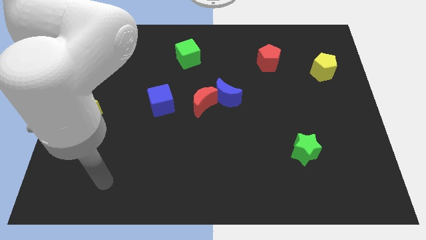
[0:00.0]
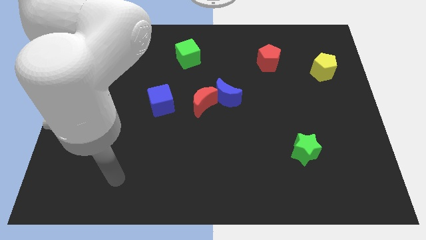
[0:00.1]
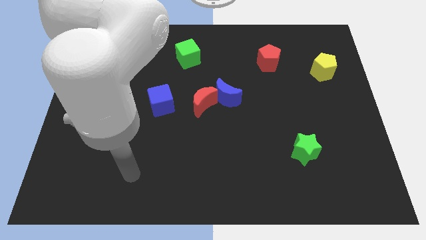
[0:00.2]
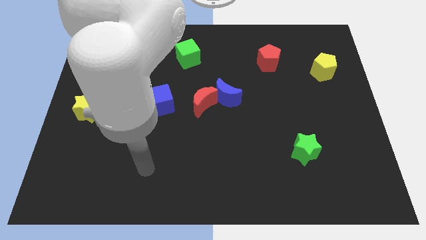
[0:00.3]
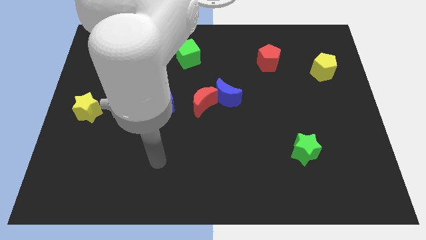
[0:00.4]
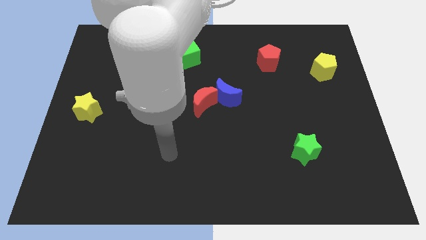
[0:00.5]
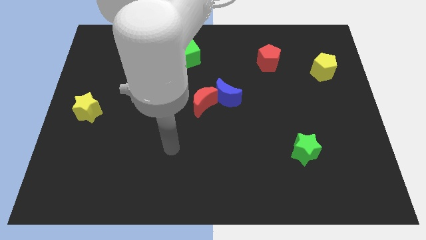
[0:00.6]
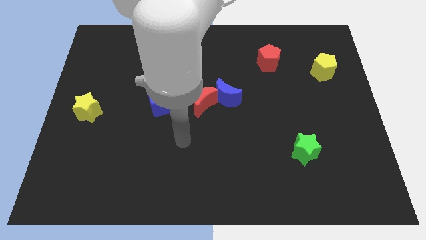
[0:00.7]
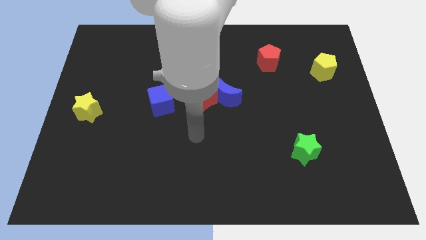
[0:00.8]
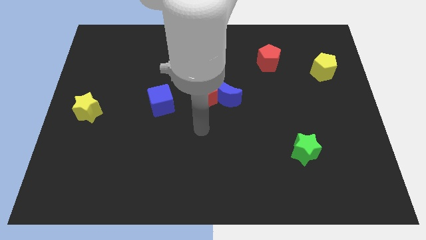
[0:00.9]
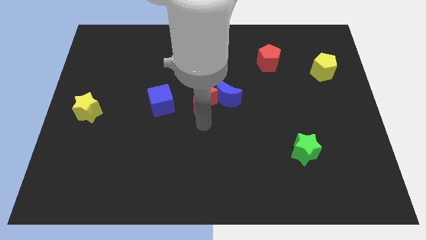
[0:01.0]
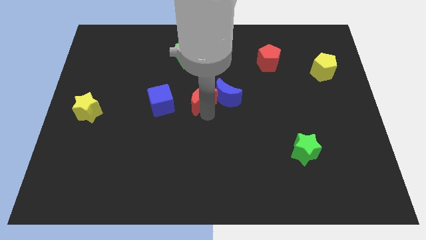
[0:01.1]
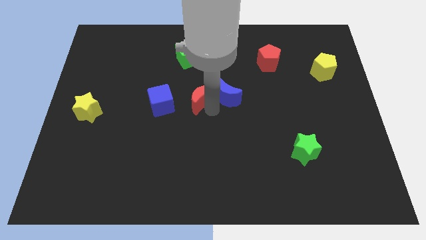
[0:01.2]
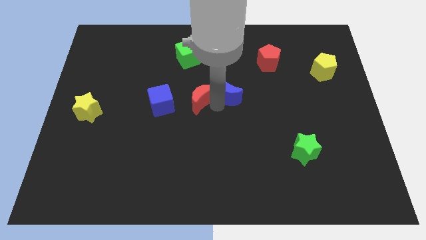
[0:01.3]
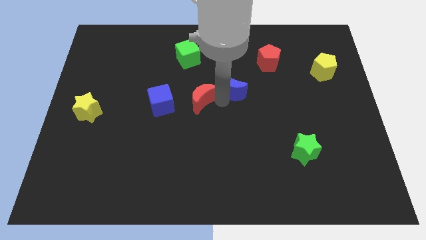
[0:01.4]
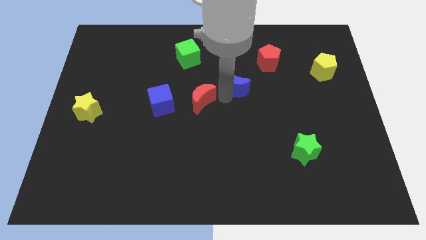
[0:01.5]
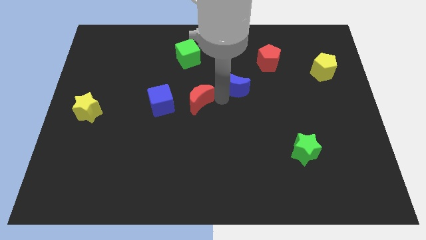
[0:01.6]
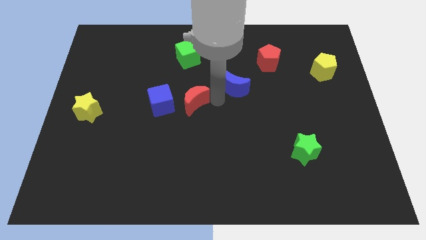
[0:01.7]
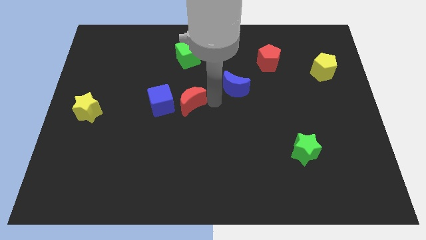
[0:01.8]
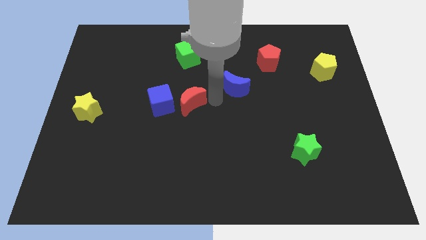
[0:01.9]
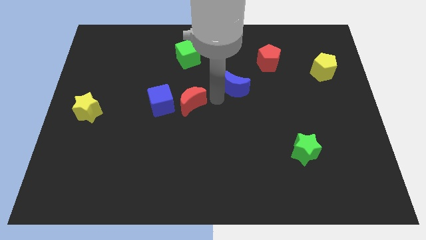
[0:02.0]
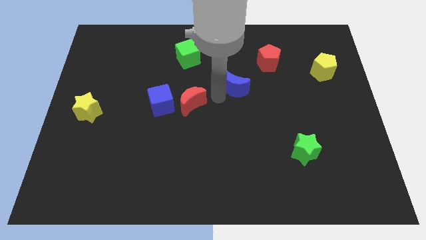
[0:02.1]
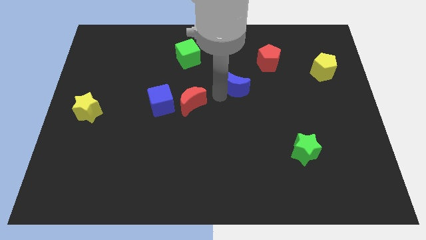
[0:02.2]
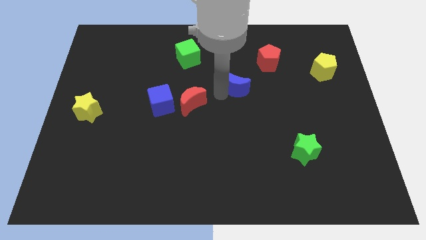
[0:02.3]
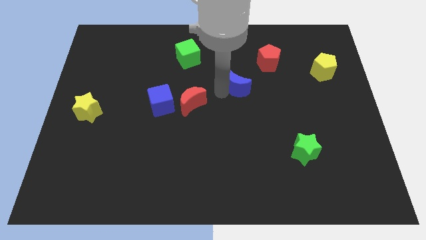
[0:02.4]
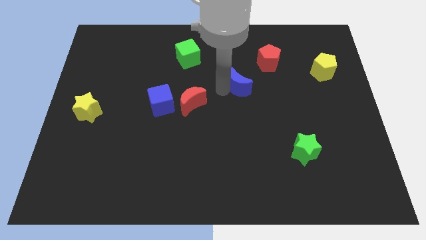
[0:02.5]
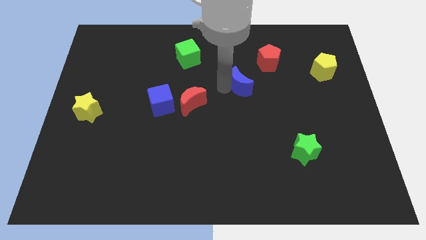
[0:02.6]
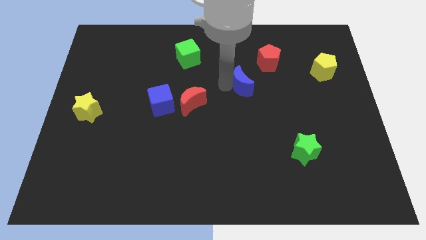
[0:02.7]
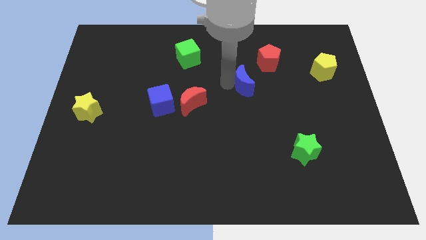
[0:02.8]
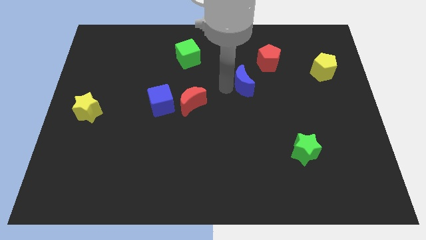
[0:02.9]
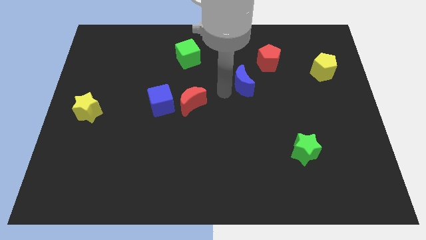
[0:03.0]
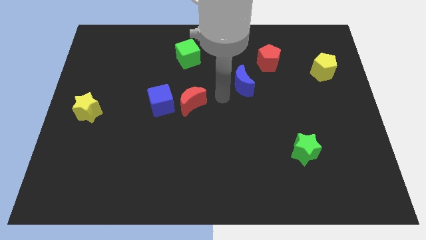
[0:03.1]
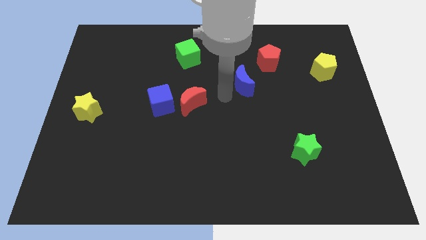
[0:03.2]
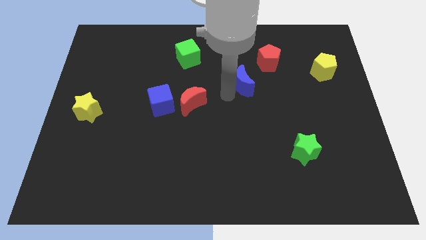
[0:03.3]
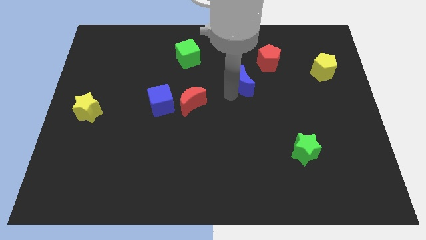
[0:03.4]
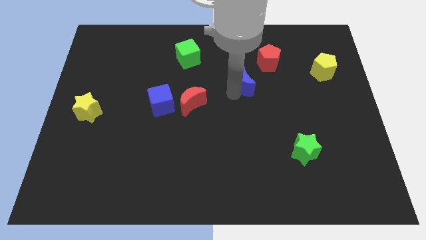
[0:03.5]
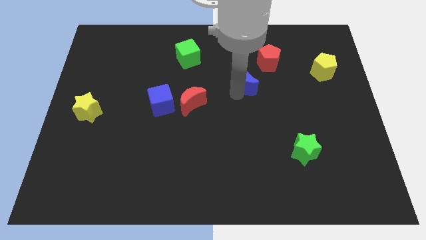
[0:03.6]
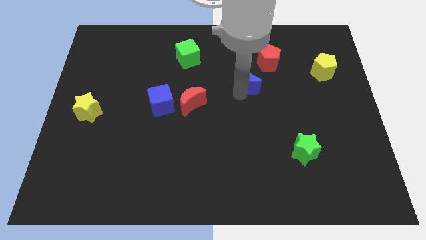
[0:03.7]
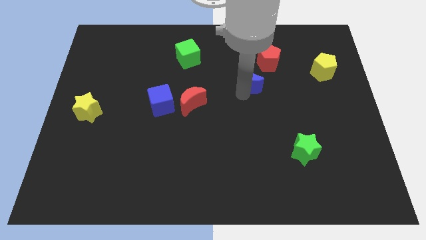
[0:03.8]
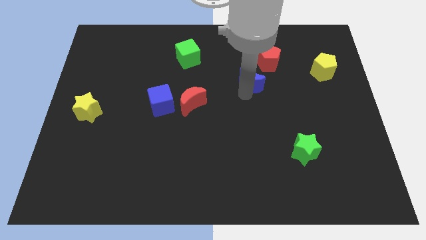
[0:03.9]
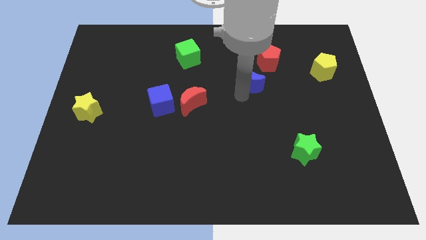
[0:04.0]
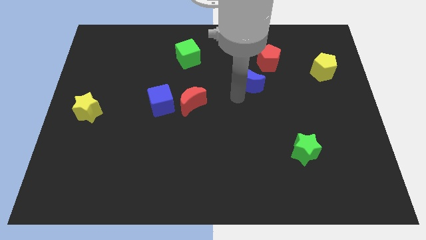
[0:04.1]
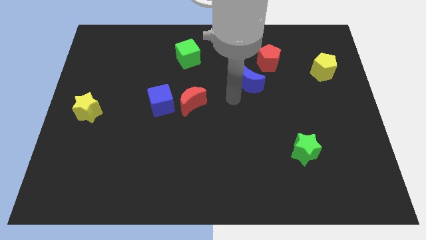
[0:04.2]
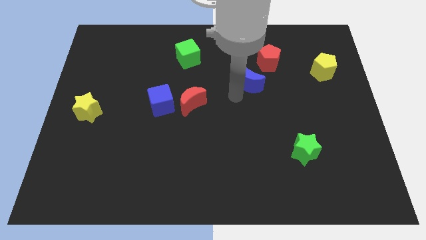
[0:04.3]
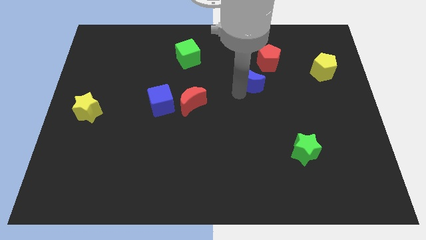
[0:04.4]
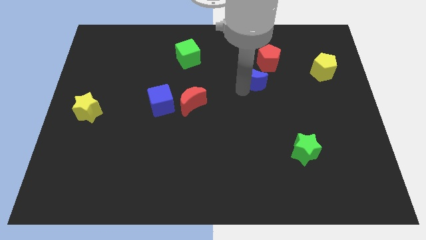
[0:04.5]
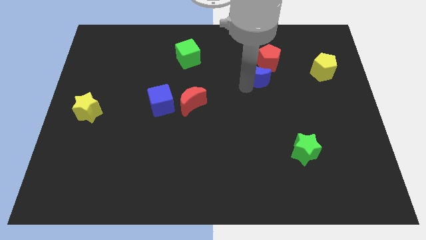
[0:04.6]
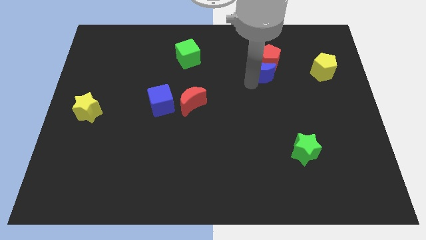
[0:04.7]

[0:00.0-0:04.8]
move the blue moon towards the red pentagon

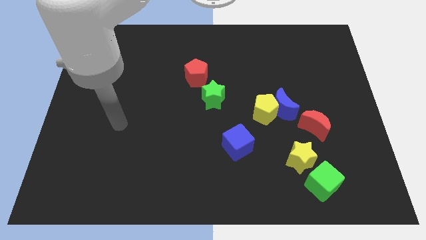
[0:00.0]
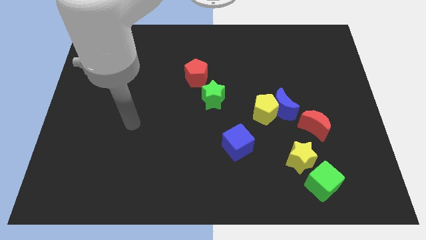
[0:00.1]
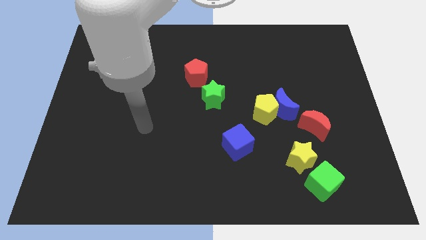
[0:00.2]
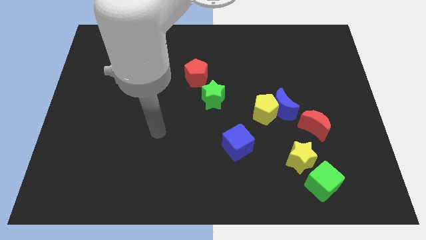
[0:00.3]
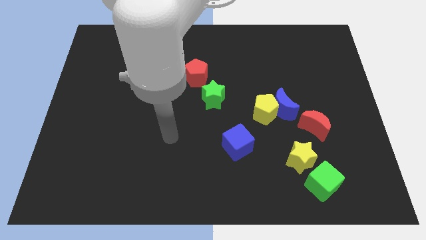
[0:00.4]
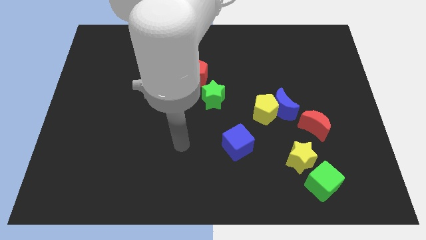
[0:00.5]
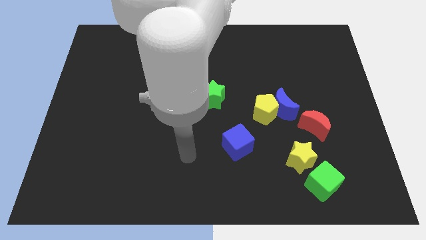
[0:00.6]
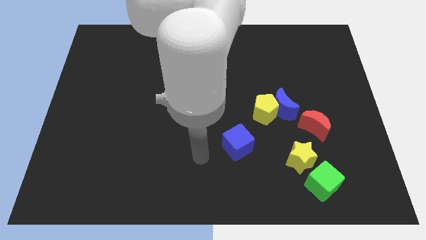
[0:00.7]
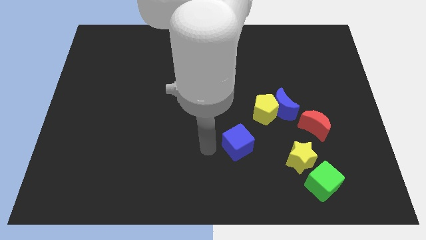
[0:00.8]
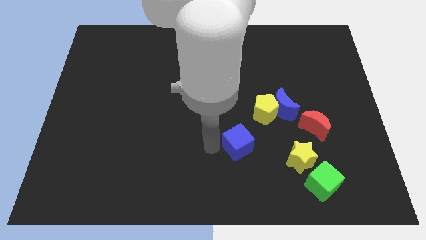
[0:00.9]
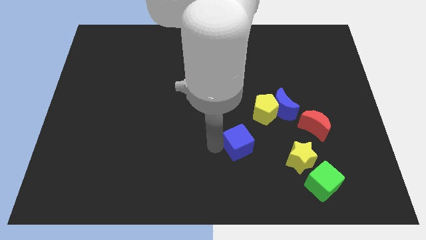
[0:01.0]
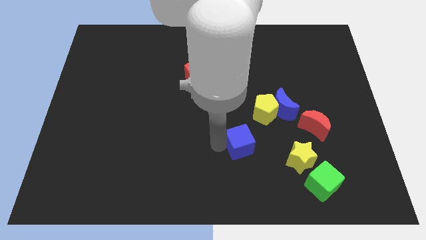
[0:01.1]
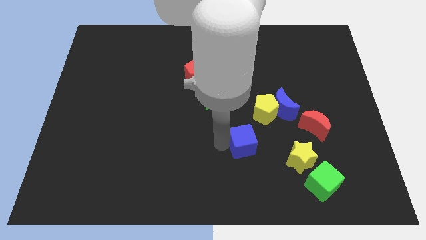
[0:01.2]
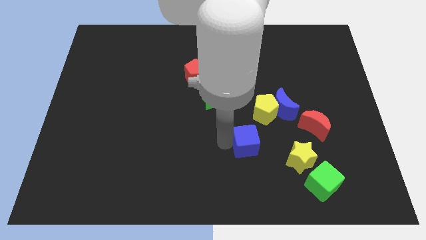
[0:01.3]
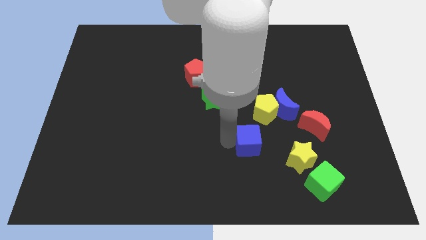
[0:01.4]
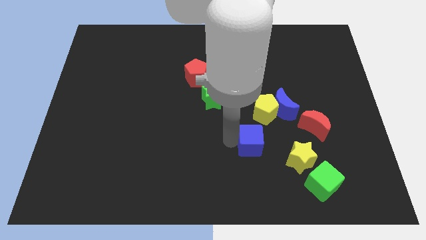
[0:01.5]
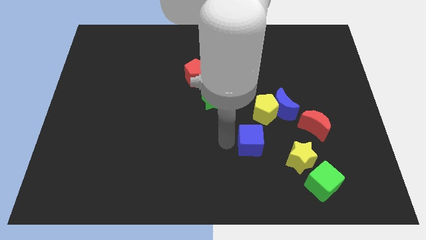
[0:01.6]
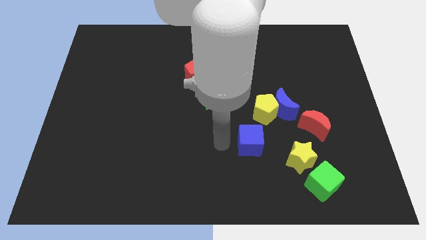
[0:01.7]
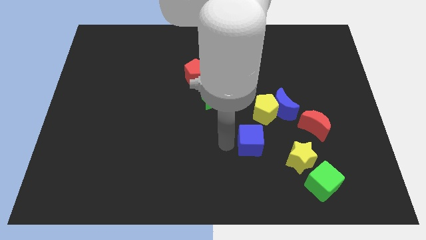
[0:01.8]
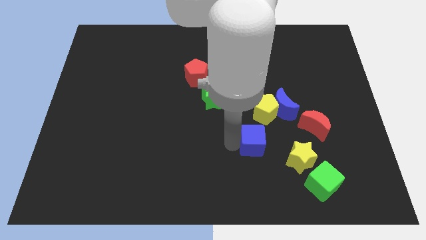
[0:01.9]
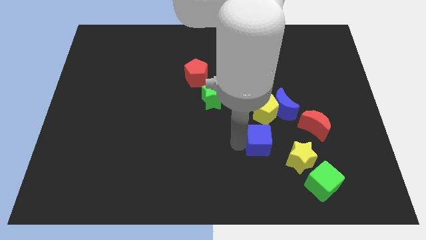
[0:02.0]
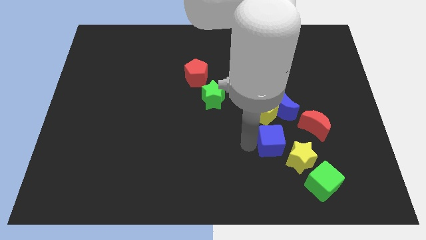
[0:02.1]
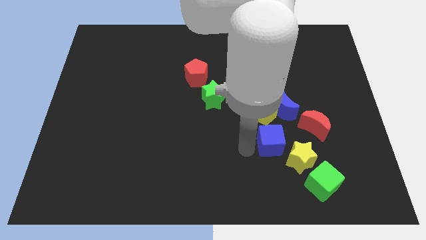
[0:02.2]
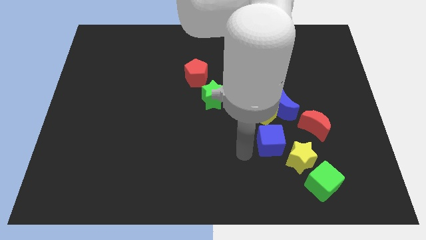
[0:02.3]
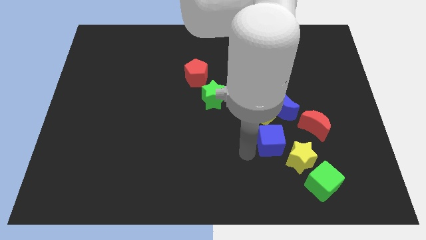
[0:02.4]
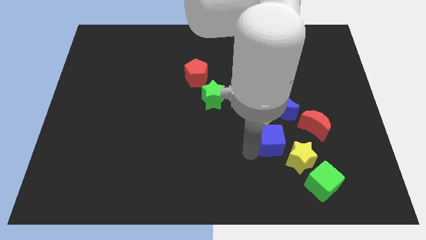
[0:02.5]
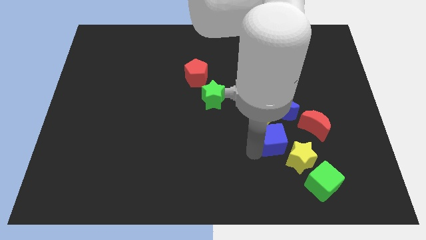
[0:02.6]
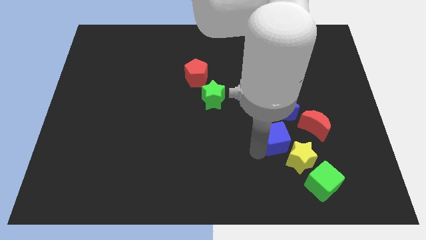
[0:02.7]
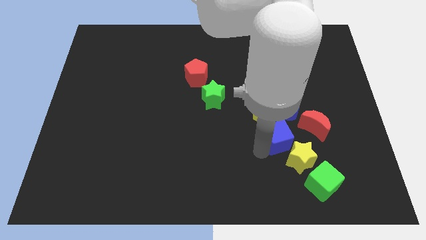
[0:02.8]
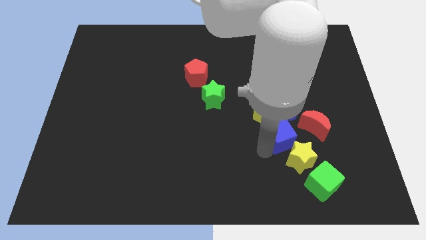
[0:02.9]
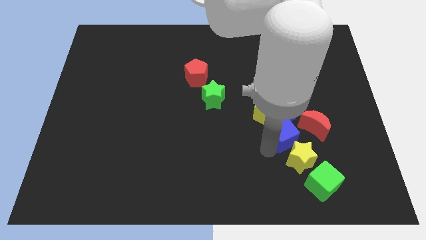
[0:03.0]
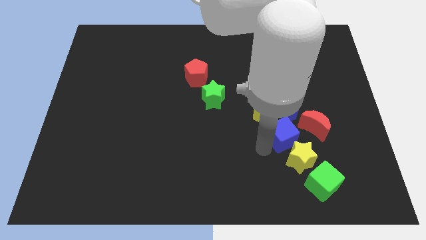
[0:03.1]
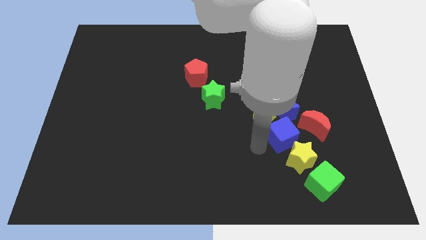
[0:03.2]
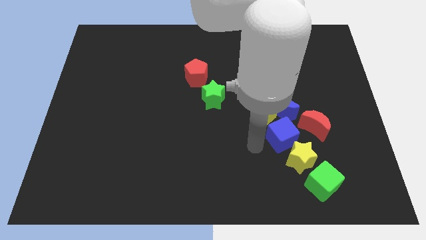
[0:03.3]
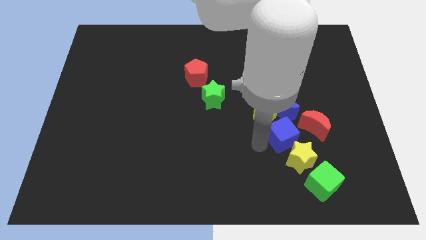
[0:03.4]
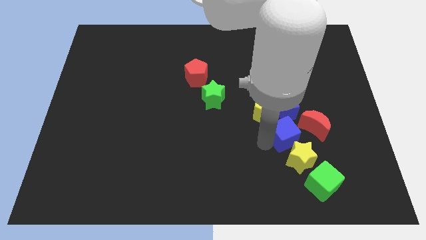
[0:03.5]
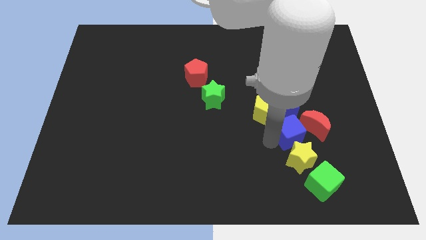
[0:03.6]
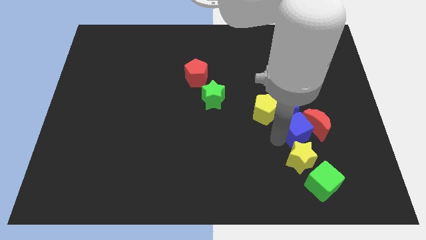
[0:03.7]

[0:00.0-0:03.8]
push the blue cube close to the red moon
